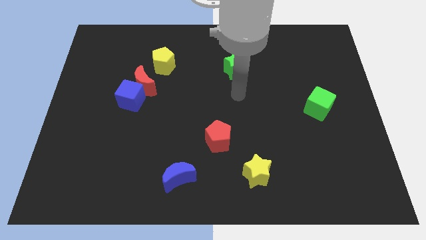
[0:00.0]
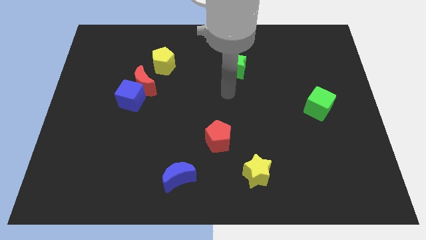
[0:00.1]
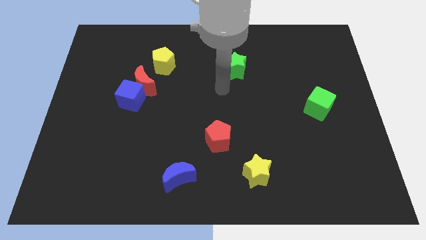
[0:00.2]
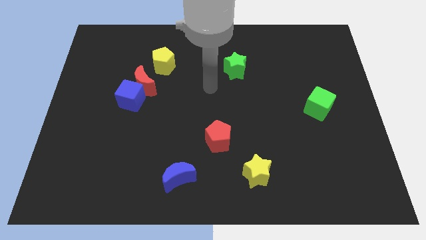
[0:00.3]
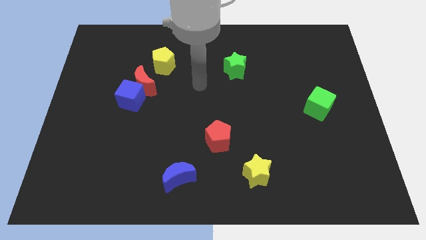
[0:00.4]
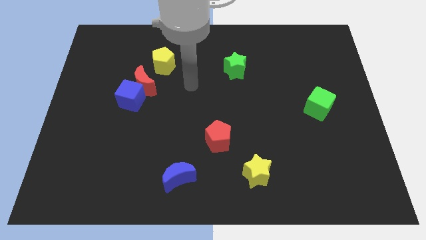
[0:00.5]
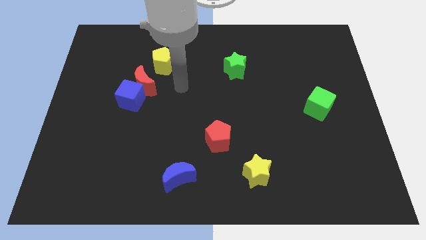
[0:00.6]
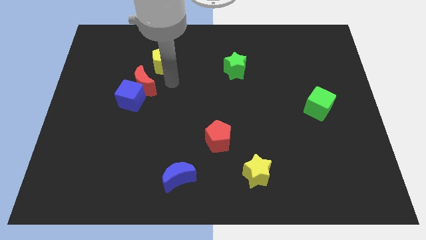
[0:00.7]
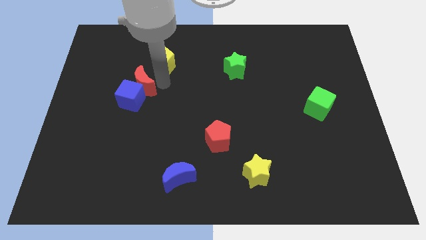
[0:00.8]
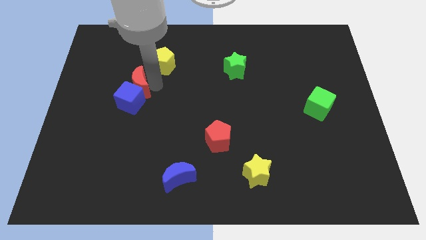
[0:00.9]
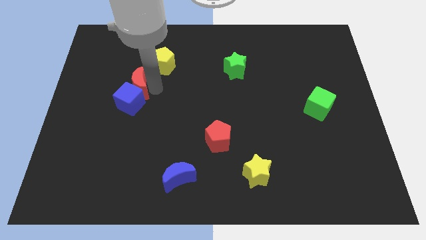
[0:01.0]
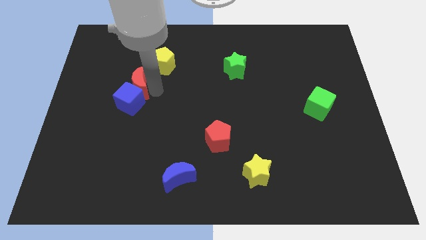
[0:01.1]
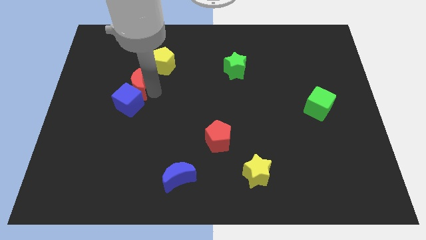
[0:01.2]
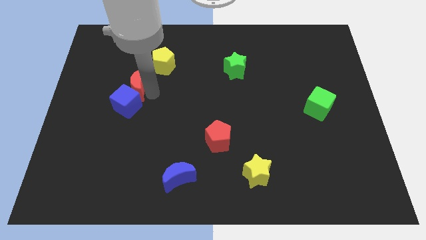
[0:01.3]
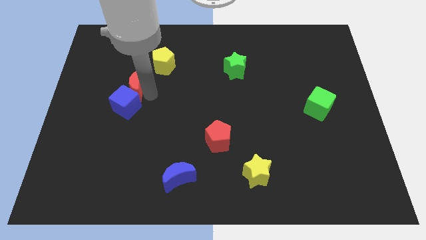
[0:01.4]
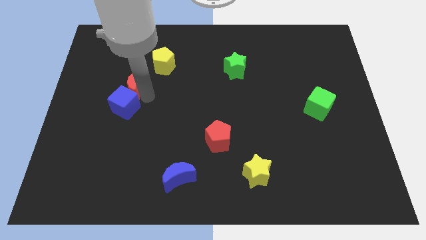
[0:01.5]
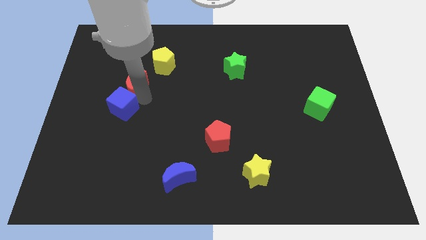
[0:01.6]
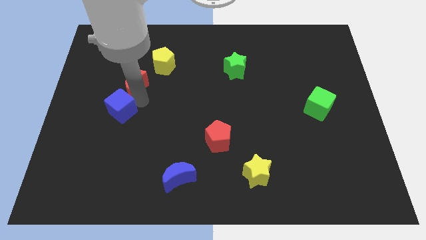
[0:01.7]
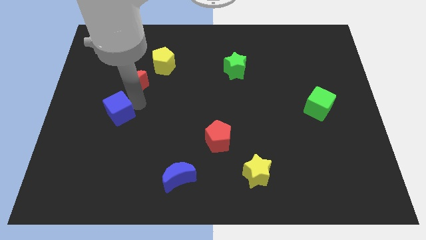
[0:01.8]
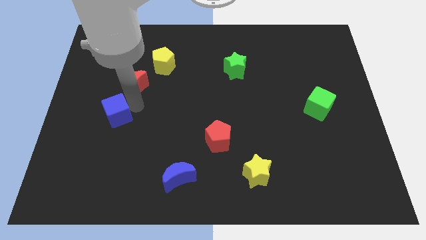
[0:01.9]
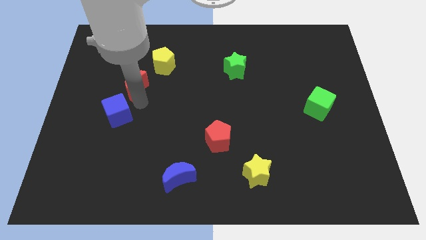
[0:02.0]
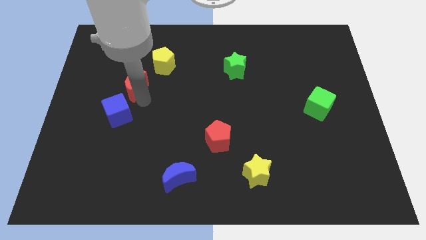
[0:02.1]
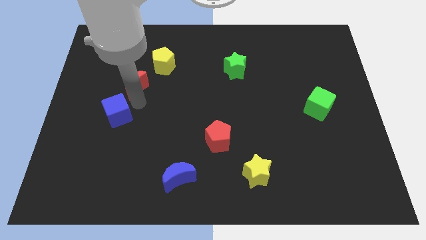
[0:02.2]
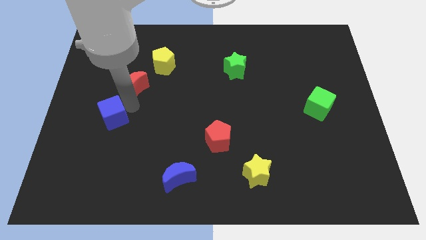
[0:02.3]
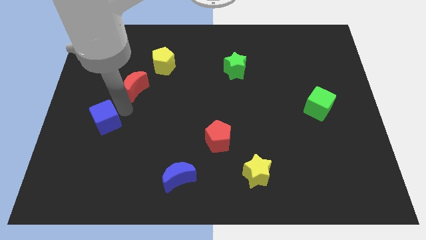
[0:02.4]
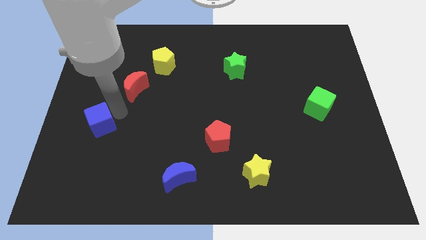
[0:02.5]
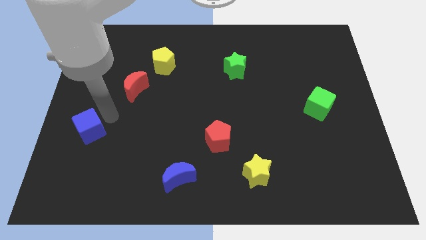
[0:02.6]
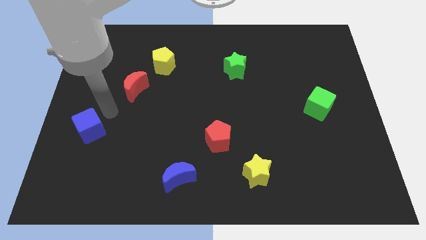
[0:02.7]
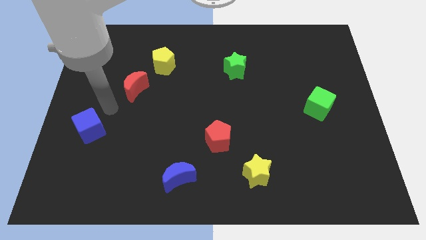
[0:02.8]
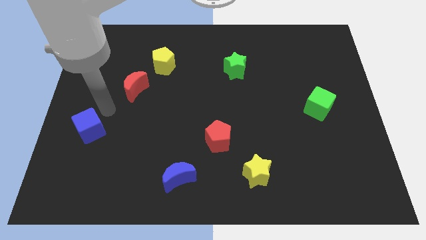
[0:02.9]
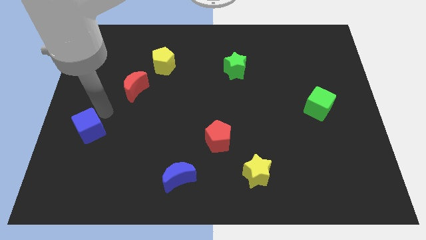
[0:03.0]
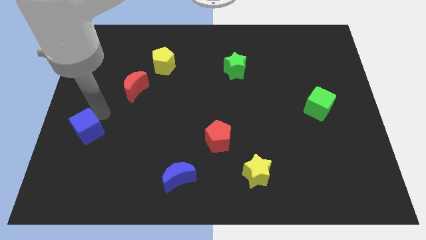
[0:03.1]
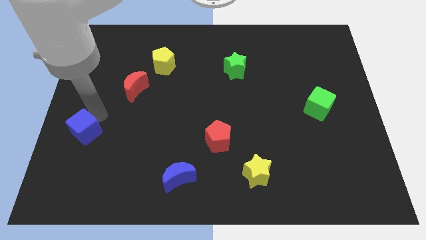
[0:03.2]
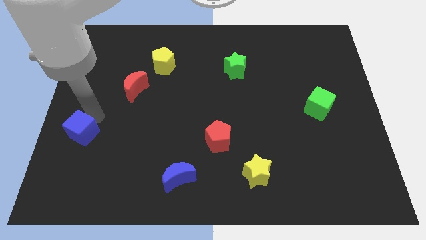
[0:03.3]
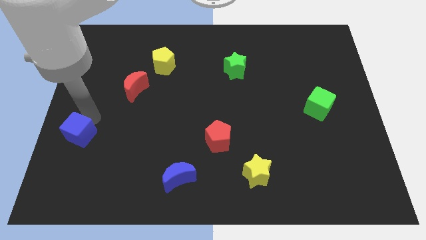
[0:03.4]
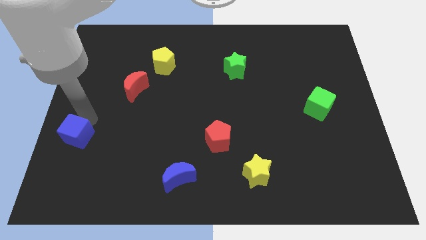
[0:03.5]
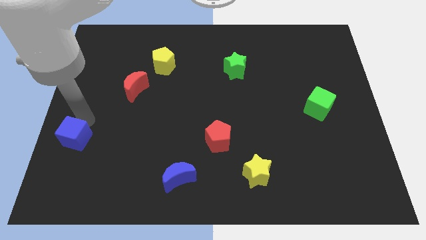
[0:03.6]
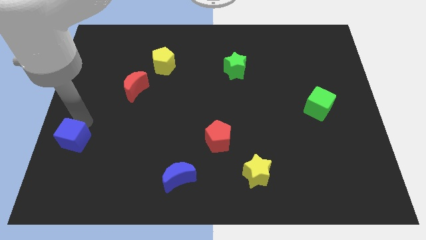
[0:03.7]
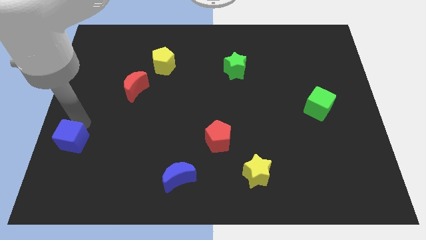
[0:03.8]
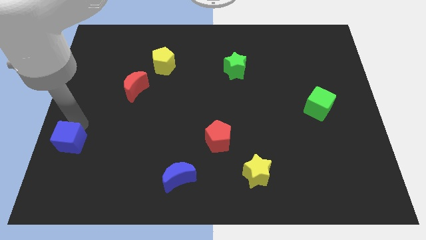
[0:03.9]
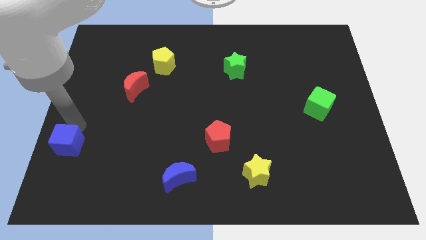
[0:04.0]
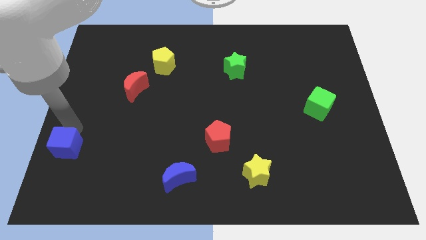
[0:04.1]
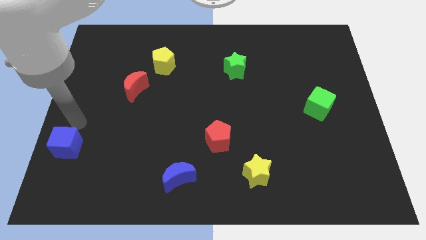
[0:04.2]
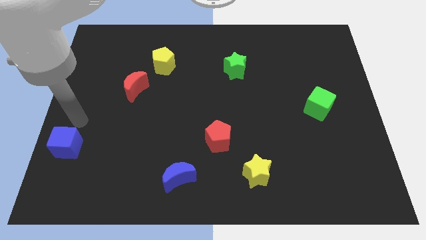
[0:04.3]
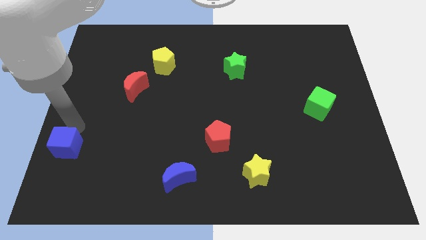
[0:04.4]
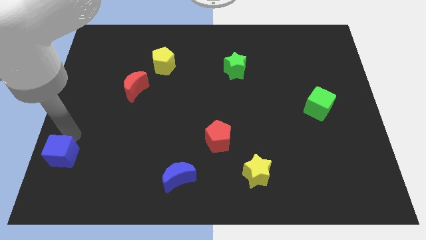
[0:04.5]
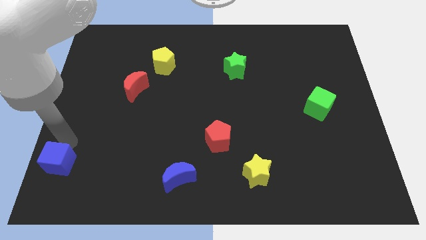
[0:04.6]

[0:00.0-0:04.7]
move the blue cube to the lower left corner

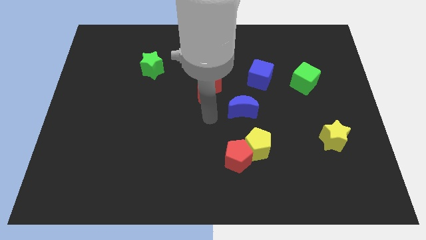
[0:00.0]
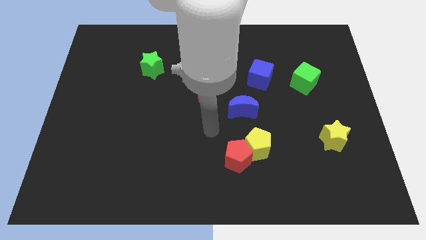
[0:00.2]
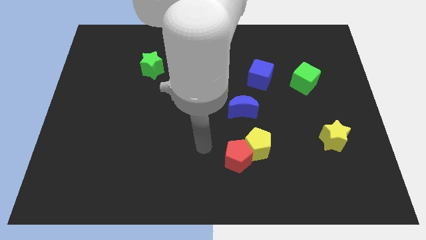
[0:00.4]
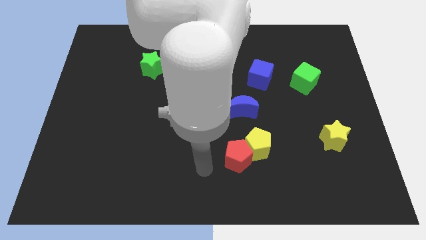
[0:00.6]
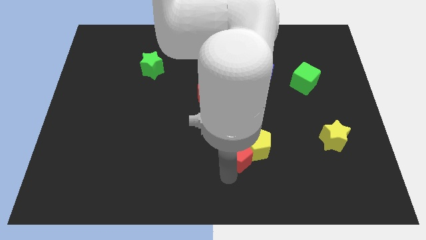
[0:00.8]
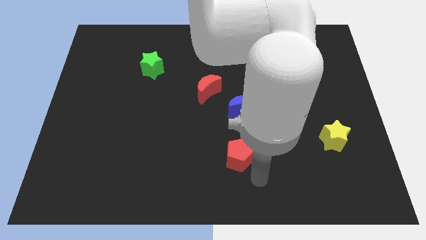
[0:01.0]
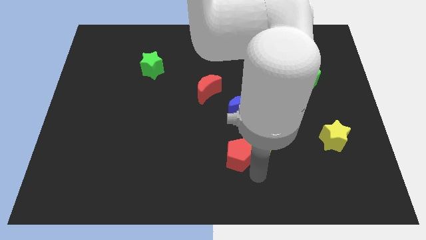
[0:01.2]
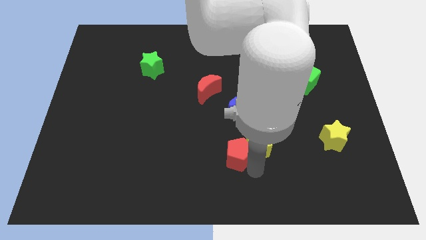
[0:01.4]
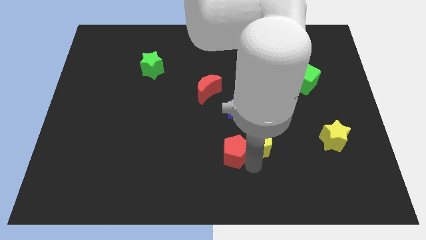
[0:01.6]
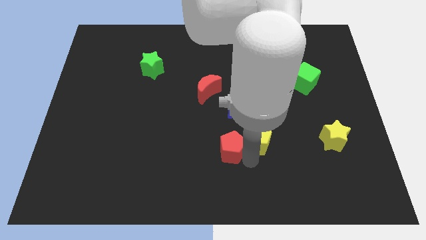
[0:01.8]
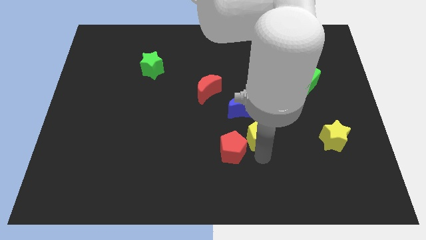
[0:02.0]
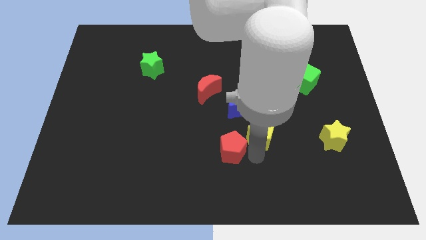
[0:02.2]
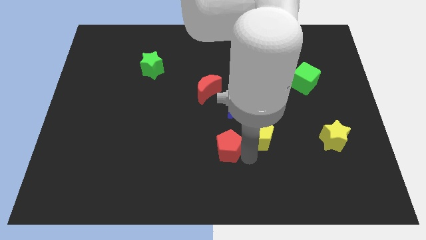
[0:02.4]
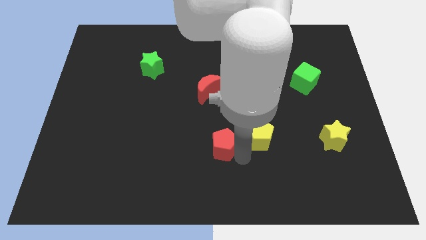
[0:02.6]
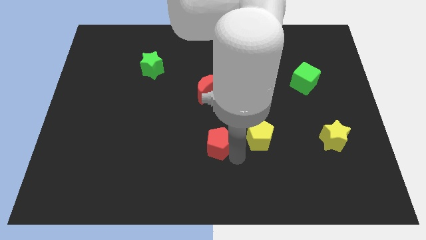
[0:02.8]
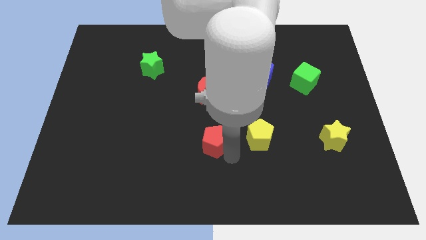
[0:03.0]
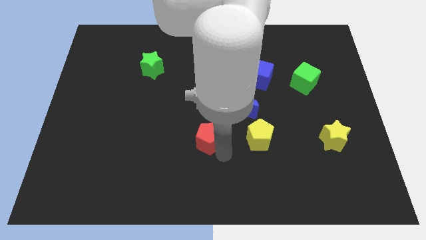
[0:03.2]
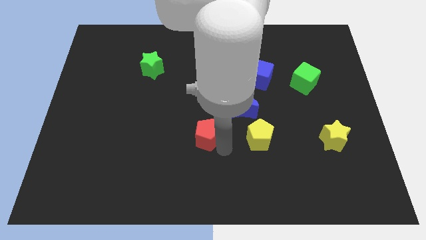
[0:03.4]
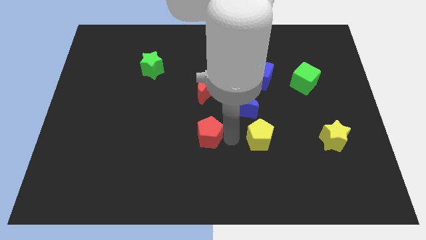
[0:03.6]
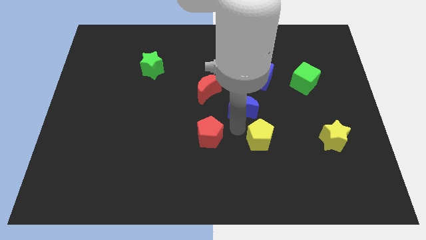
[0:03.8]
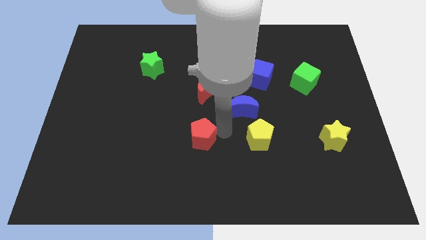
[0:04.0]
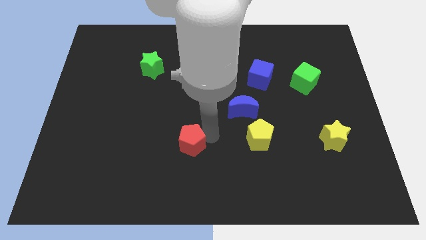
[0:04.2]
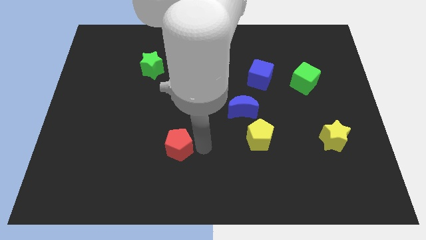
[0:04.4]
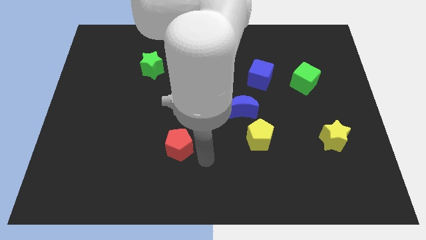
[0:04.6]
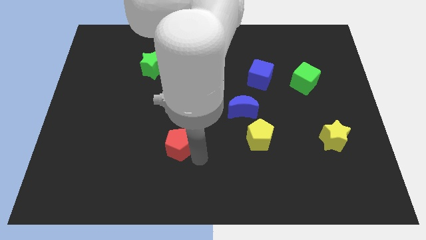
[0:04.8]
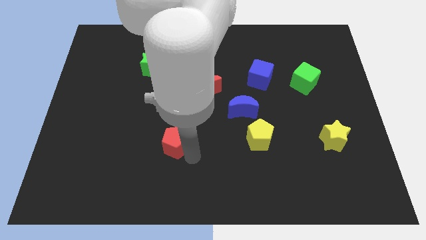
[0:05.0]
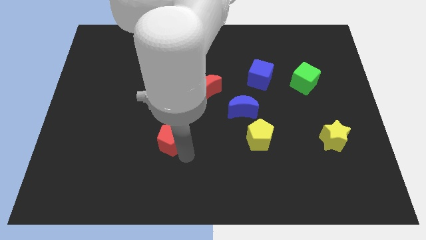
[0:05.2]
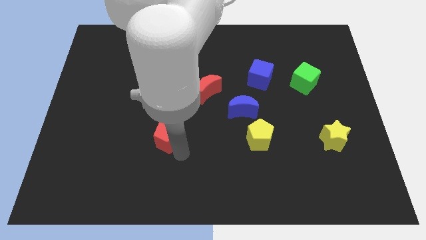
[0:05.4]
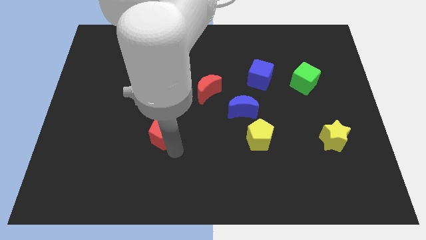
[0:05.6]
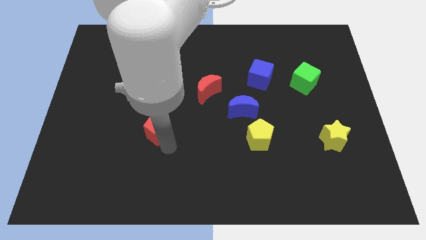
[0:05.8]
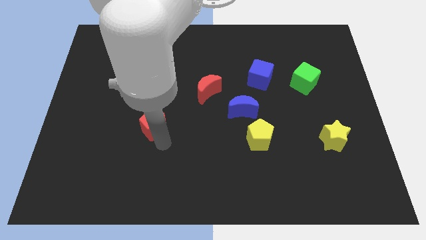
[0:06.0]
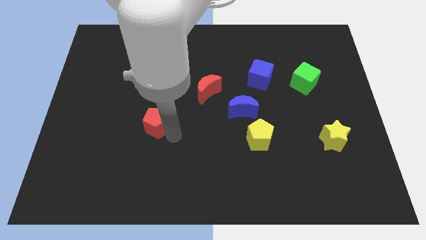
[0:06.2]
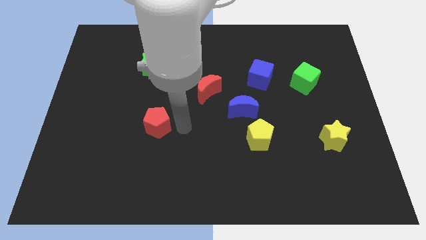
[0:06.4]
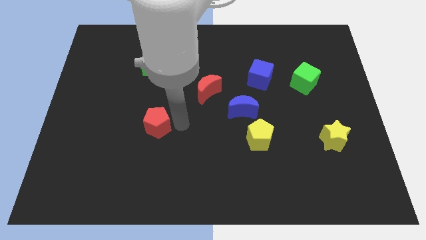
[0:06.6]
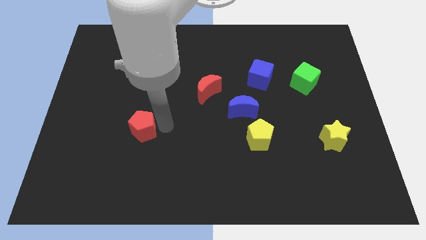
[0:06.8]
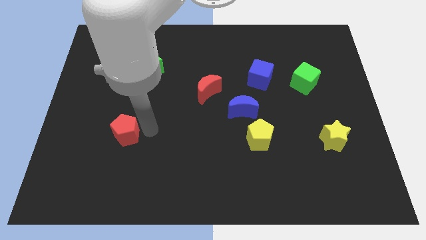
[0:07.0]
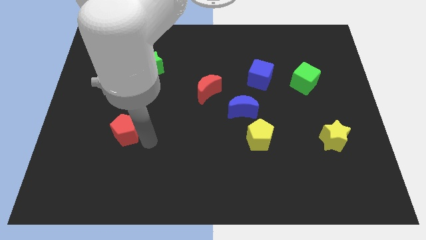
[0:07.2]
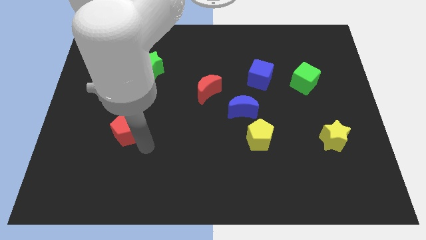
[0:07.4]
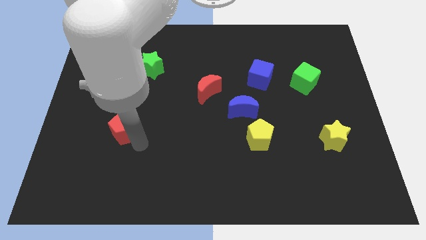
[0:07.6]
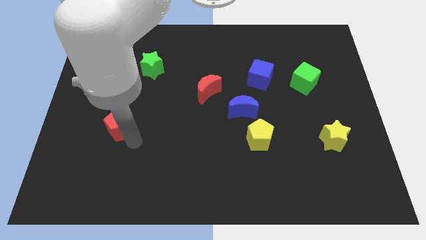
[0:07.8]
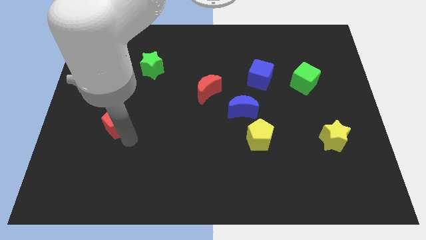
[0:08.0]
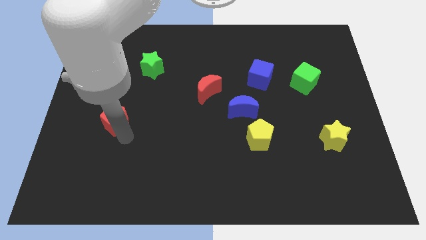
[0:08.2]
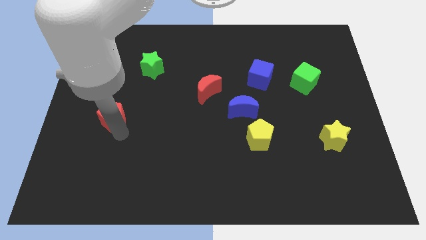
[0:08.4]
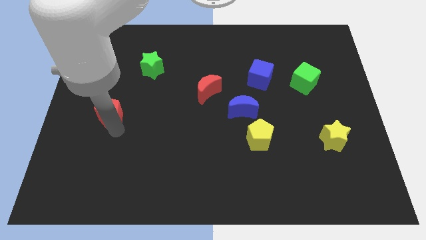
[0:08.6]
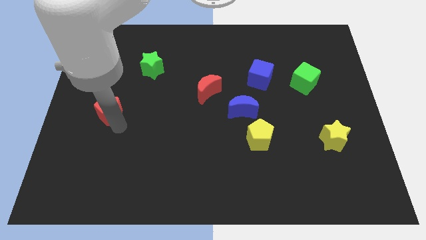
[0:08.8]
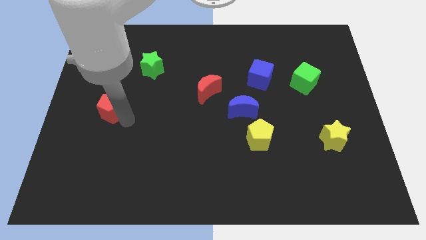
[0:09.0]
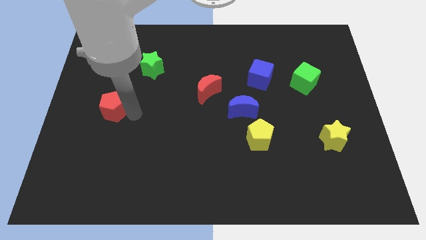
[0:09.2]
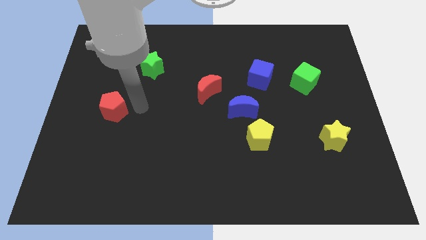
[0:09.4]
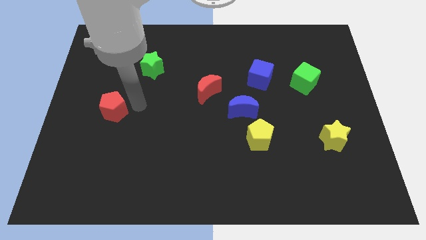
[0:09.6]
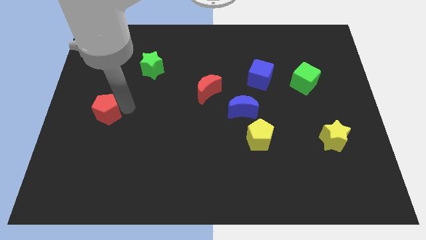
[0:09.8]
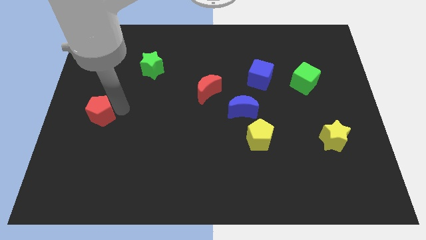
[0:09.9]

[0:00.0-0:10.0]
put the red pentagon to the center left
